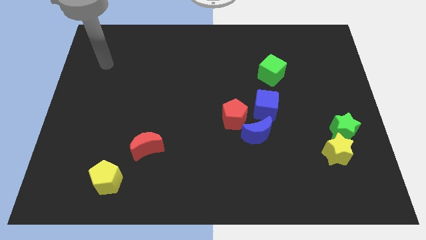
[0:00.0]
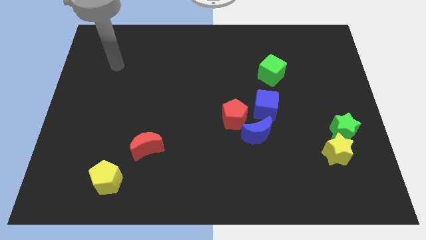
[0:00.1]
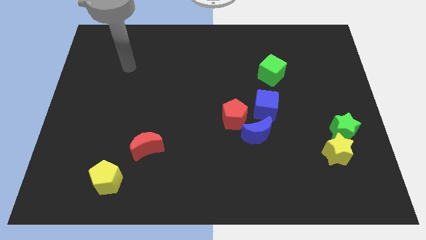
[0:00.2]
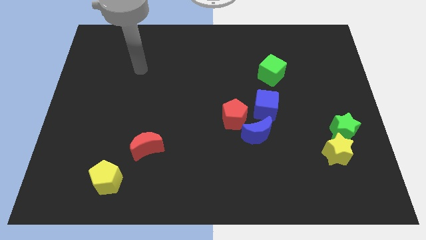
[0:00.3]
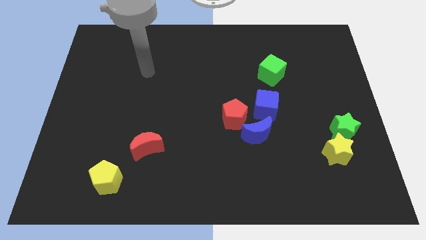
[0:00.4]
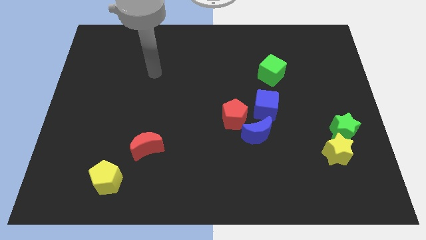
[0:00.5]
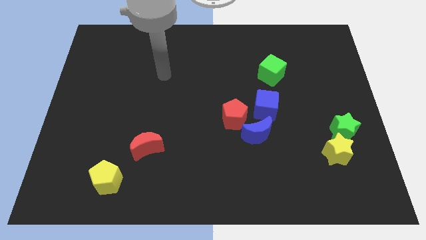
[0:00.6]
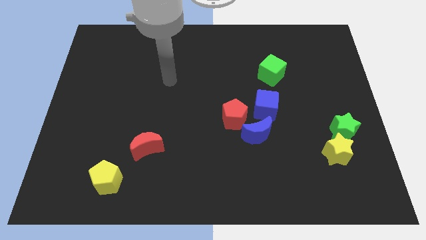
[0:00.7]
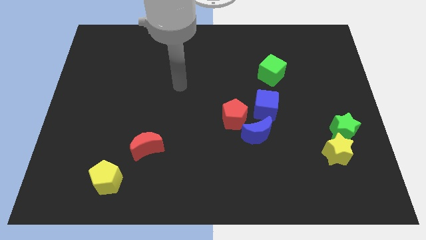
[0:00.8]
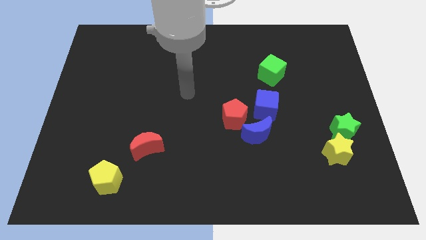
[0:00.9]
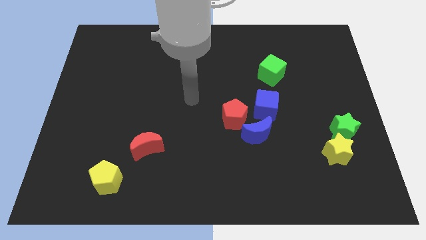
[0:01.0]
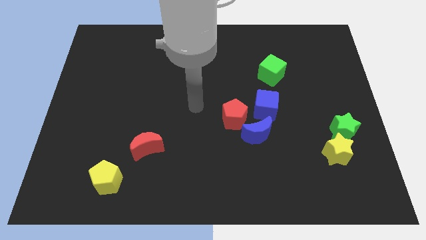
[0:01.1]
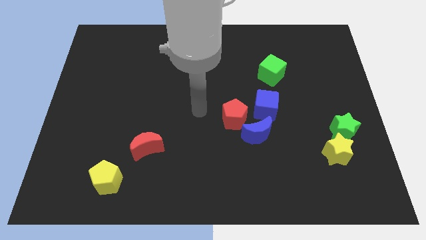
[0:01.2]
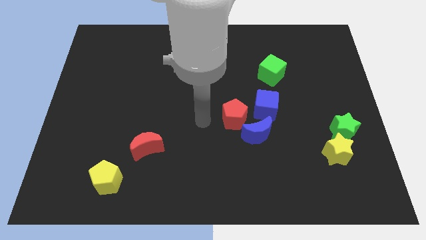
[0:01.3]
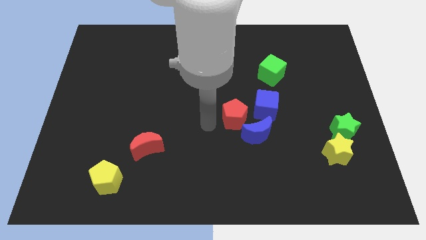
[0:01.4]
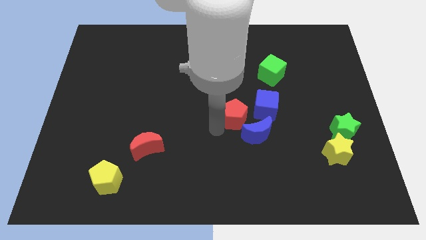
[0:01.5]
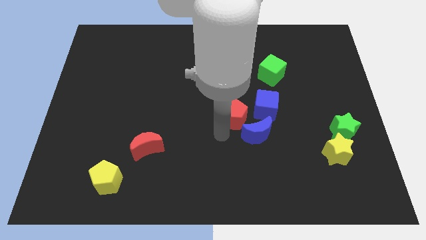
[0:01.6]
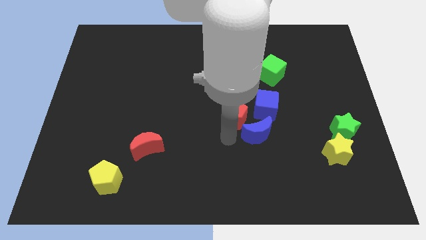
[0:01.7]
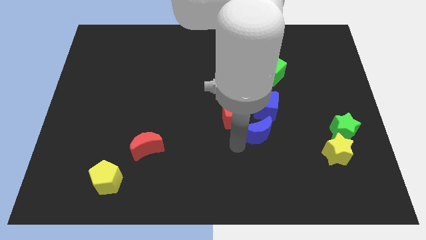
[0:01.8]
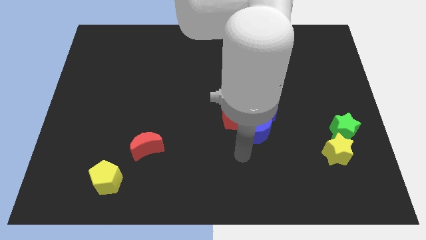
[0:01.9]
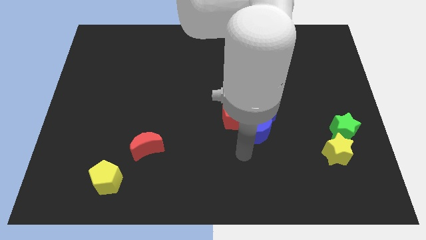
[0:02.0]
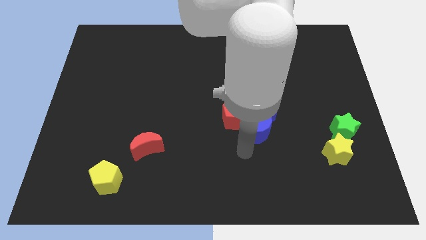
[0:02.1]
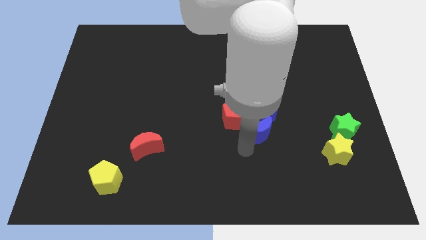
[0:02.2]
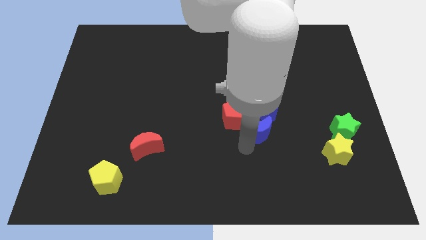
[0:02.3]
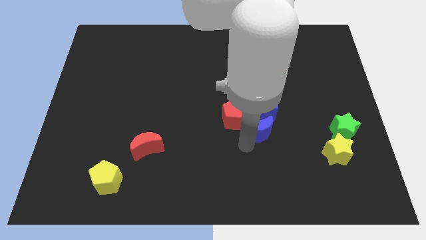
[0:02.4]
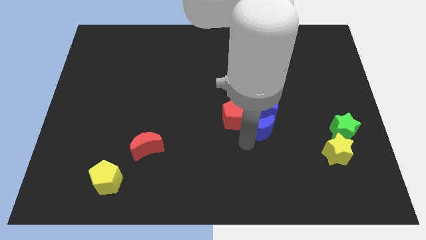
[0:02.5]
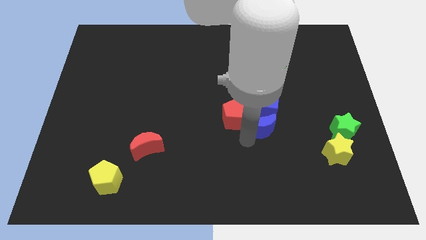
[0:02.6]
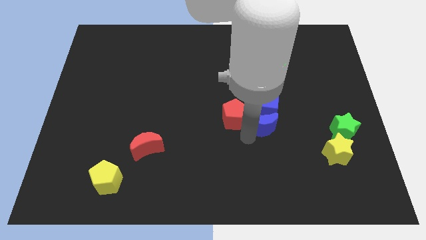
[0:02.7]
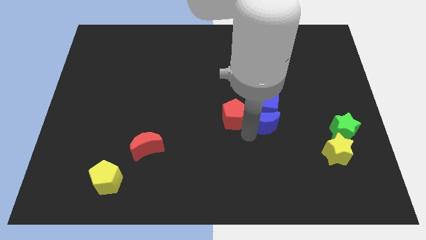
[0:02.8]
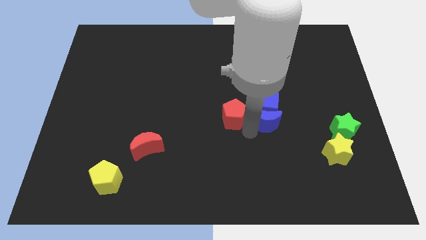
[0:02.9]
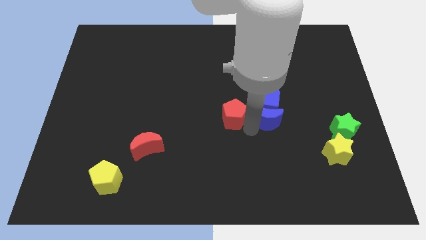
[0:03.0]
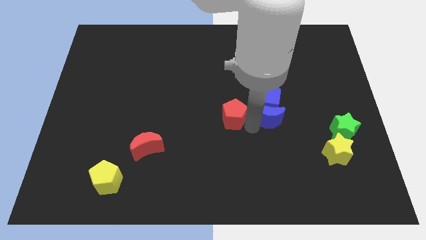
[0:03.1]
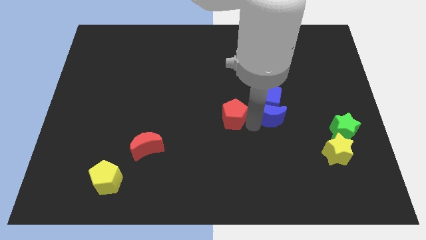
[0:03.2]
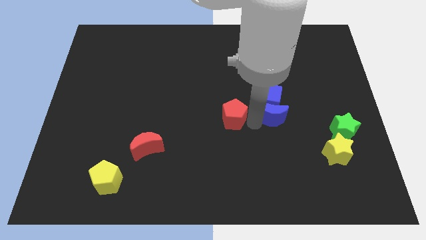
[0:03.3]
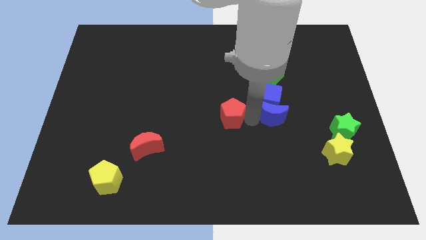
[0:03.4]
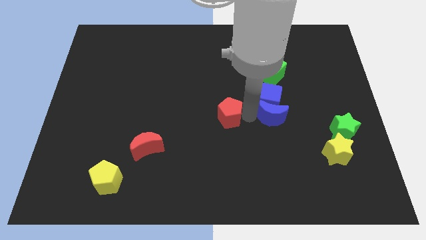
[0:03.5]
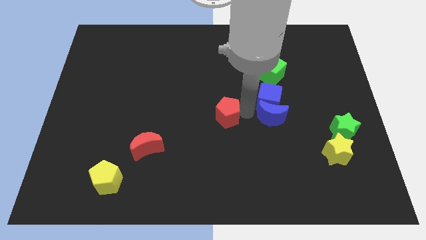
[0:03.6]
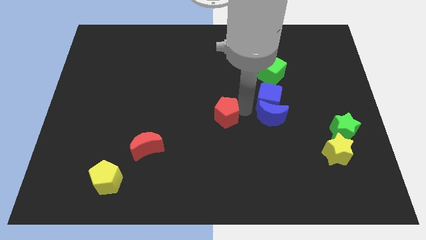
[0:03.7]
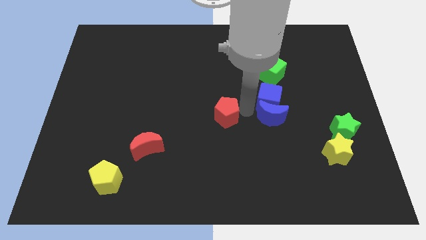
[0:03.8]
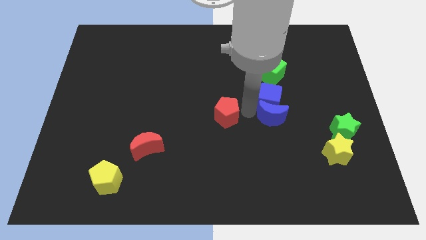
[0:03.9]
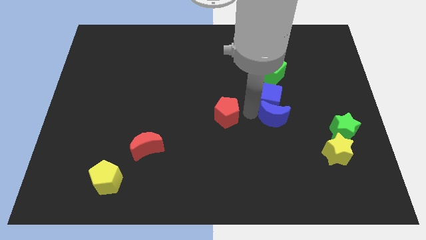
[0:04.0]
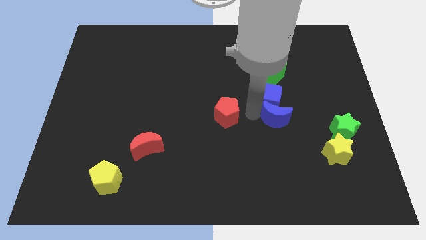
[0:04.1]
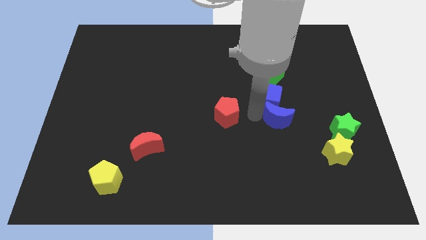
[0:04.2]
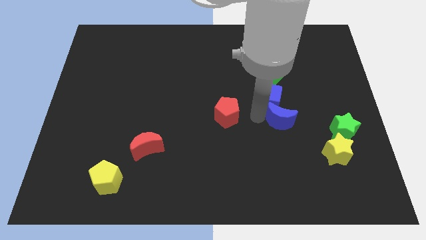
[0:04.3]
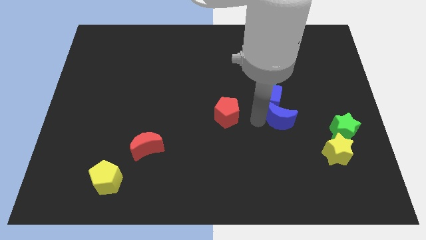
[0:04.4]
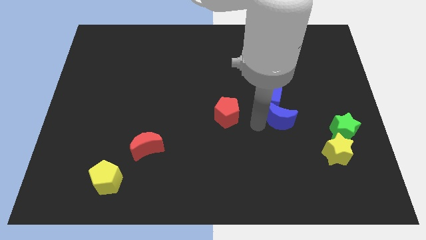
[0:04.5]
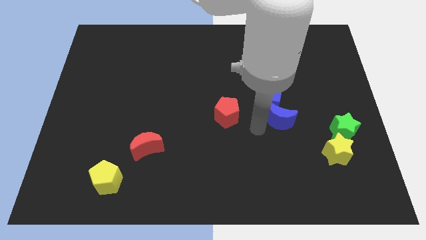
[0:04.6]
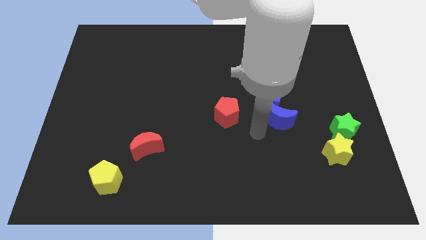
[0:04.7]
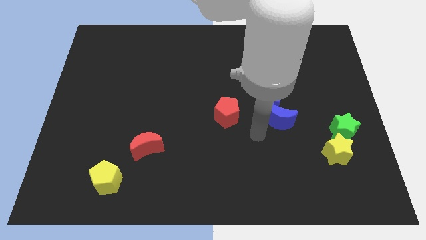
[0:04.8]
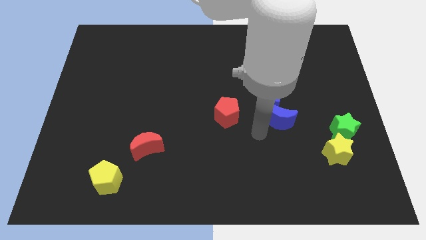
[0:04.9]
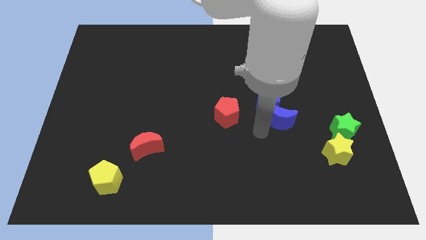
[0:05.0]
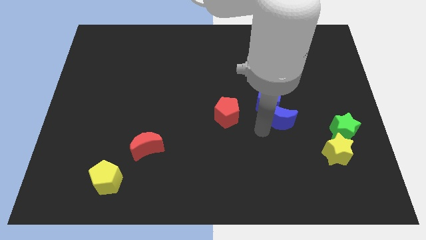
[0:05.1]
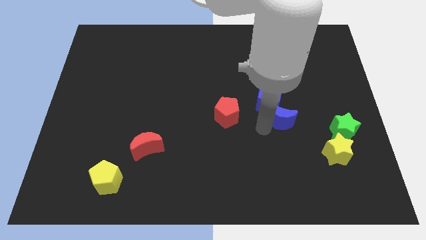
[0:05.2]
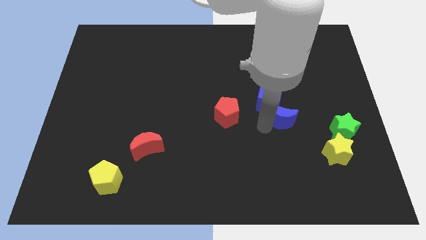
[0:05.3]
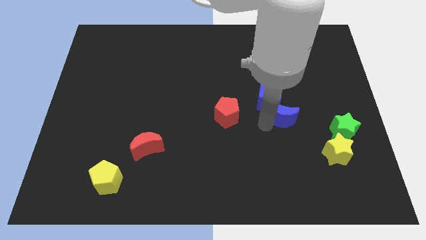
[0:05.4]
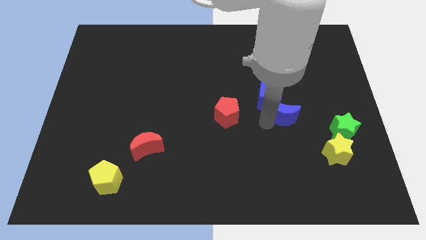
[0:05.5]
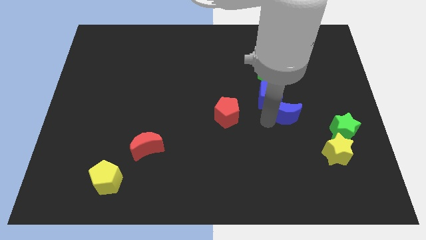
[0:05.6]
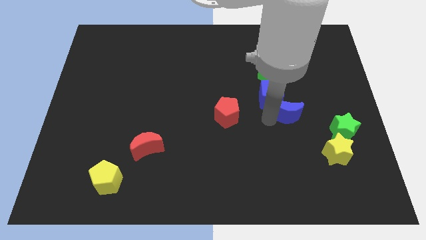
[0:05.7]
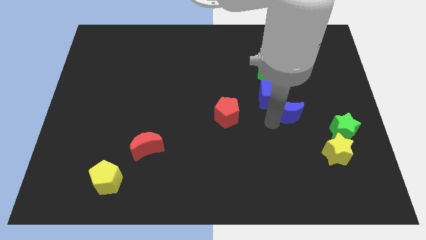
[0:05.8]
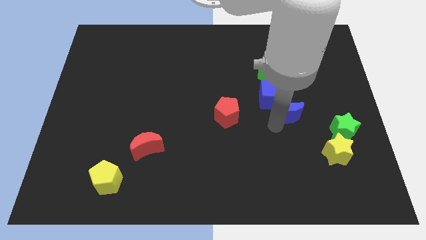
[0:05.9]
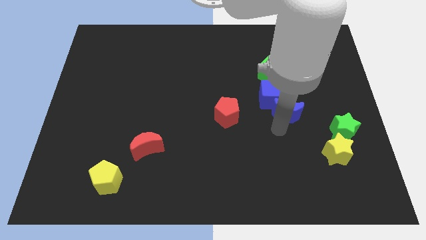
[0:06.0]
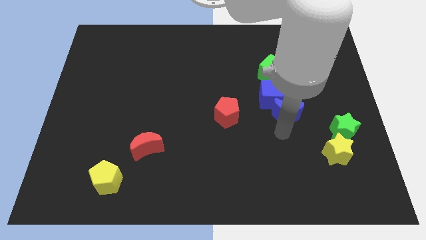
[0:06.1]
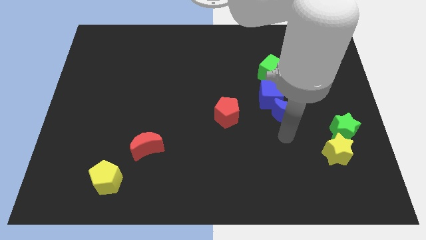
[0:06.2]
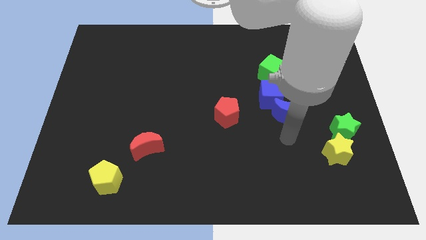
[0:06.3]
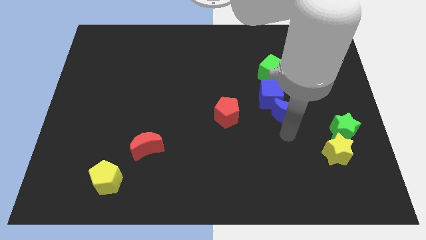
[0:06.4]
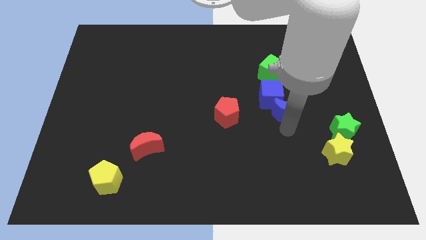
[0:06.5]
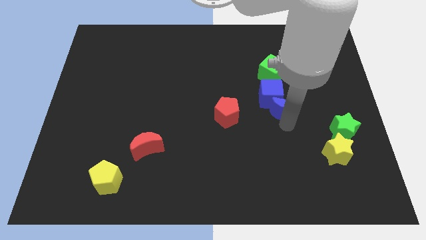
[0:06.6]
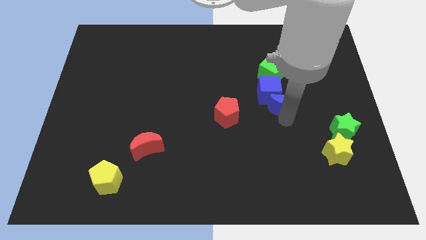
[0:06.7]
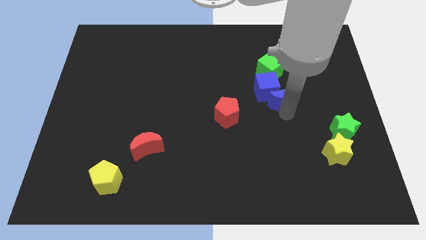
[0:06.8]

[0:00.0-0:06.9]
slightly push the blue moon upwards

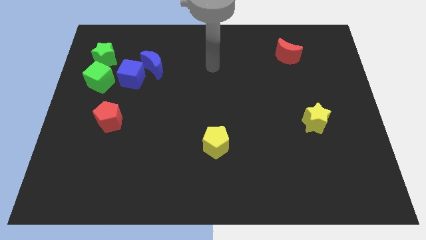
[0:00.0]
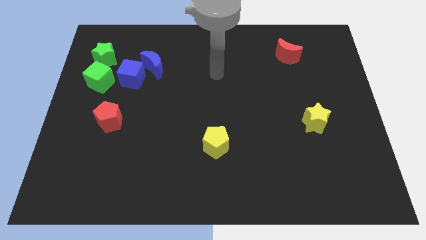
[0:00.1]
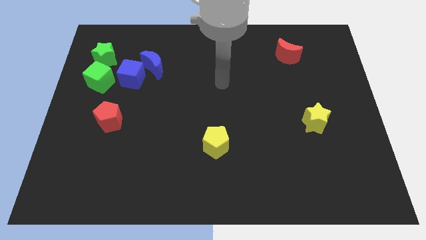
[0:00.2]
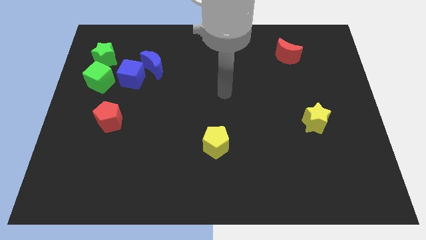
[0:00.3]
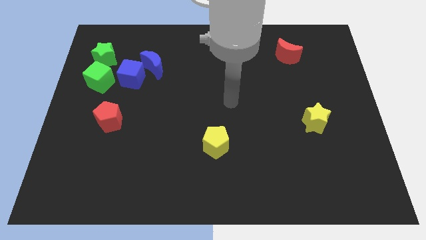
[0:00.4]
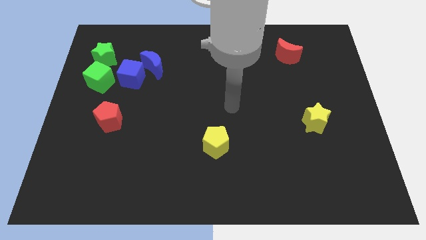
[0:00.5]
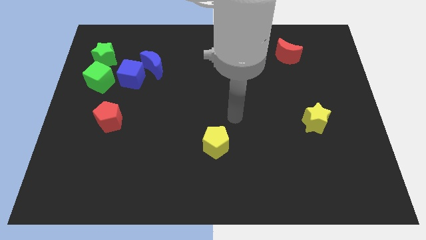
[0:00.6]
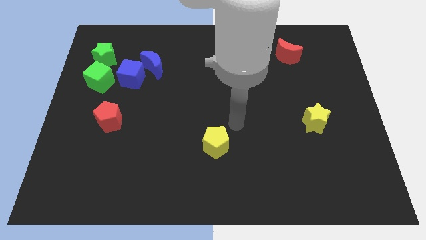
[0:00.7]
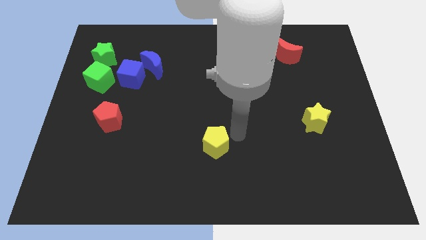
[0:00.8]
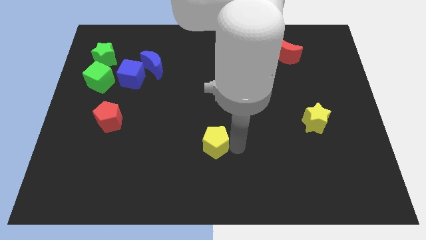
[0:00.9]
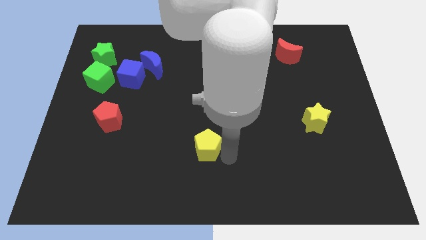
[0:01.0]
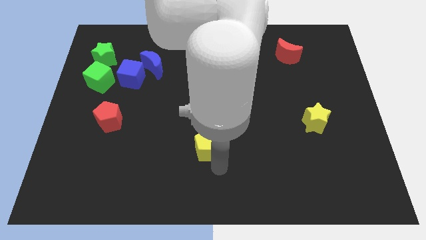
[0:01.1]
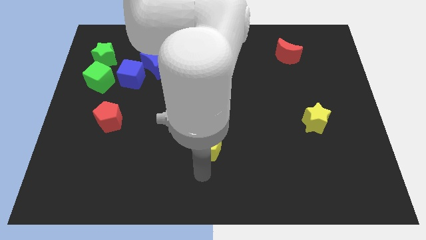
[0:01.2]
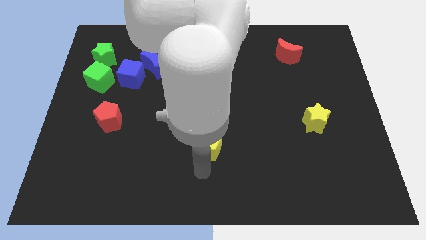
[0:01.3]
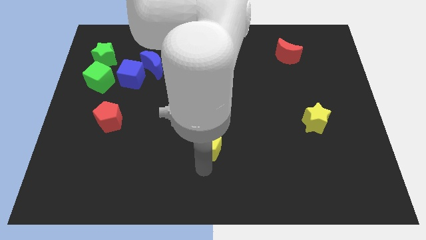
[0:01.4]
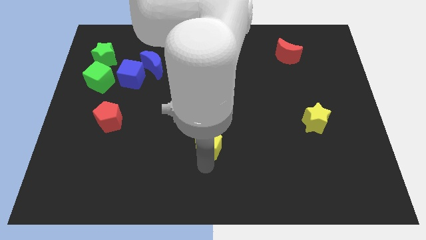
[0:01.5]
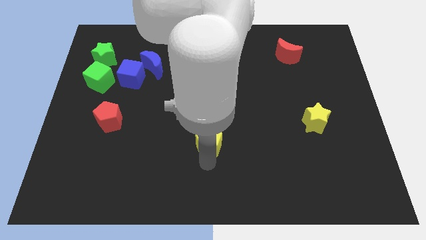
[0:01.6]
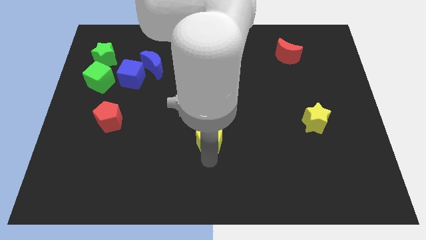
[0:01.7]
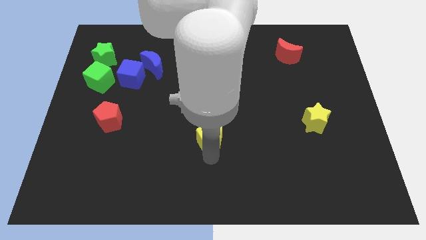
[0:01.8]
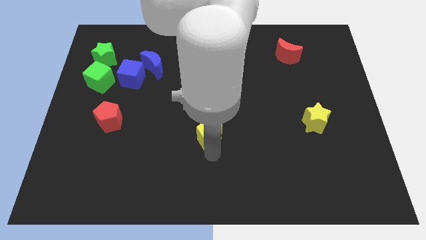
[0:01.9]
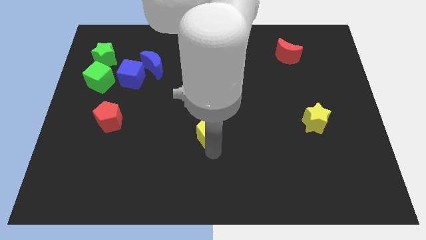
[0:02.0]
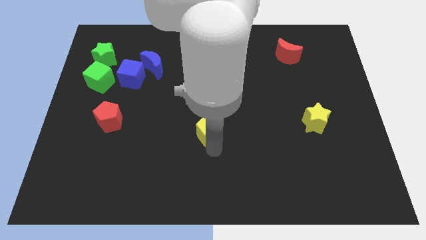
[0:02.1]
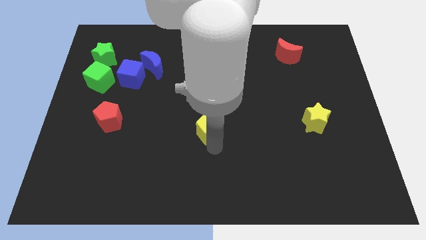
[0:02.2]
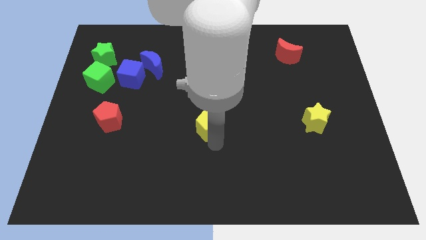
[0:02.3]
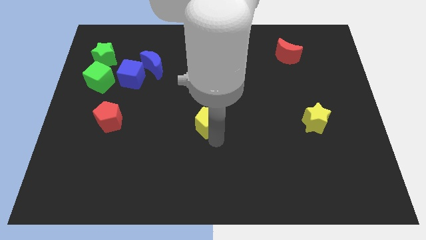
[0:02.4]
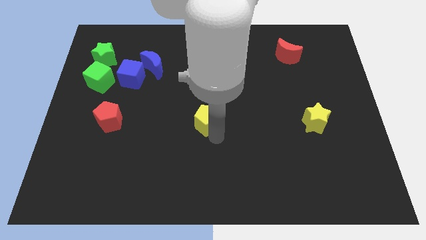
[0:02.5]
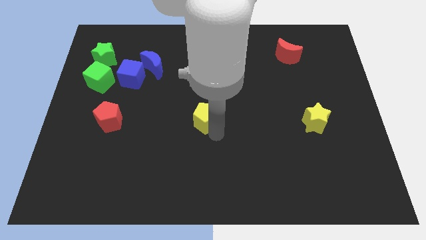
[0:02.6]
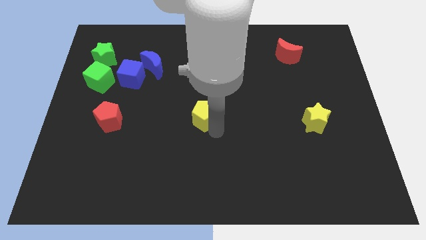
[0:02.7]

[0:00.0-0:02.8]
push the yellow pentagon up a bit
